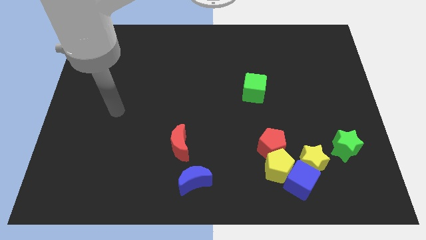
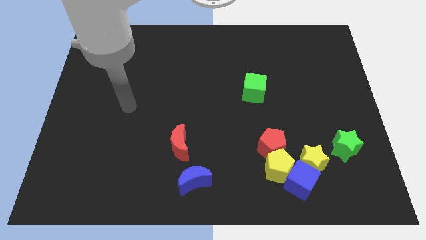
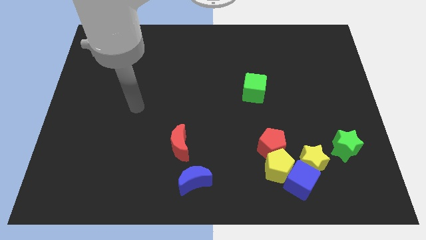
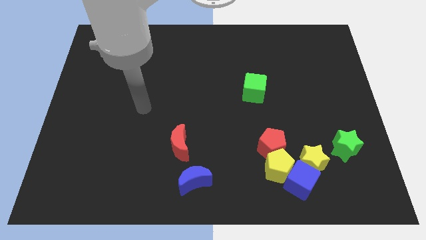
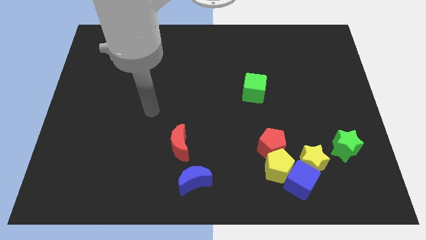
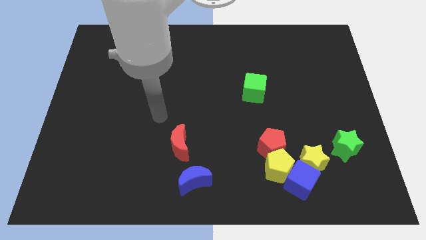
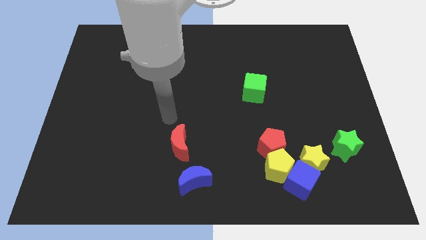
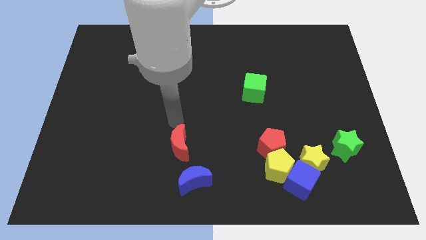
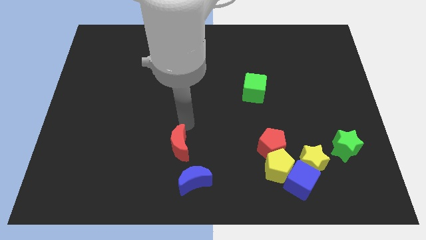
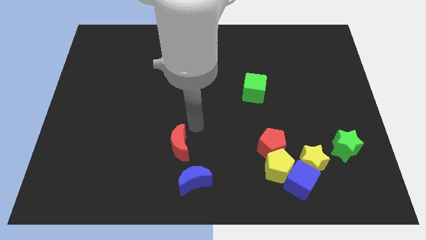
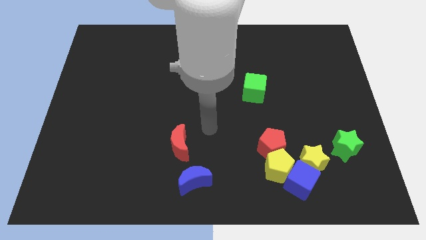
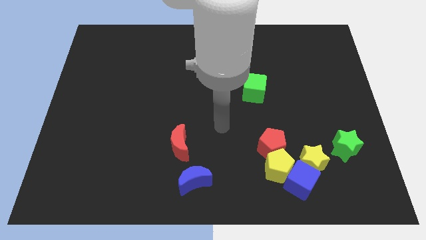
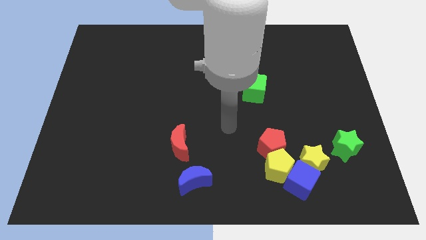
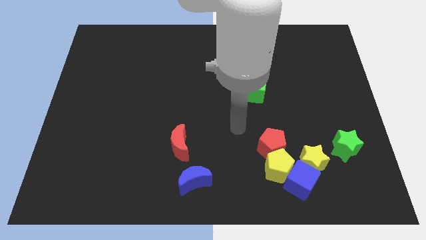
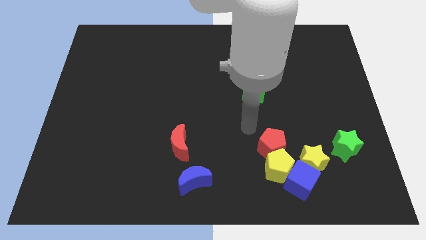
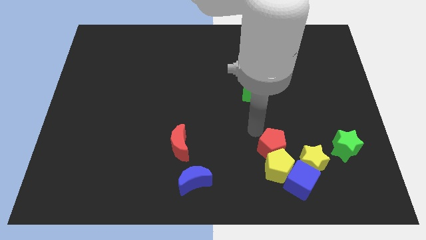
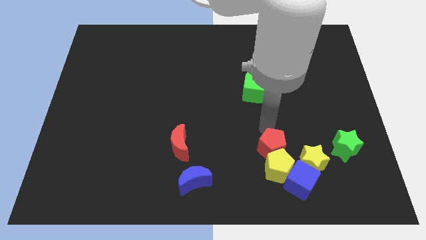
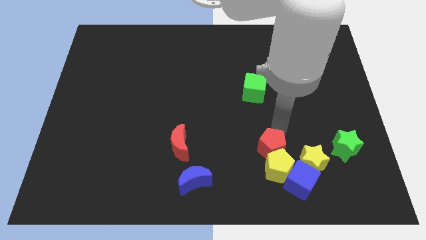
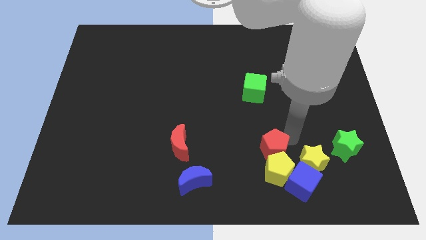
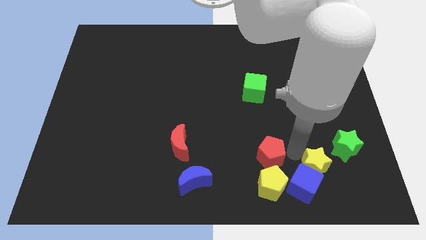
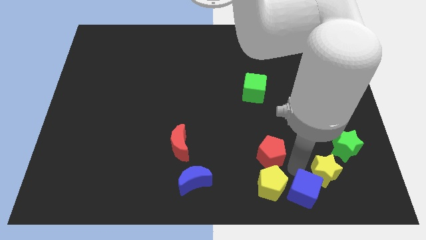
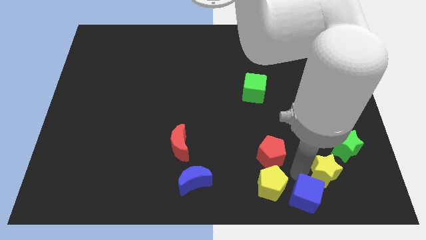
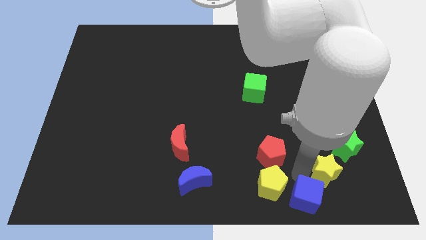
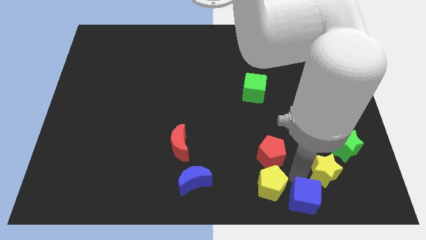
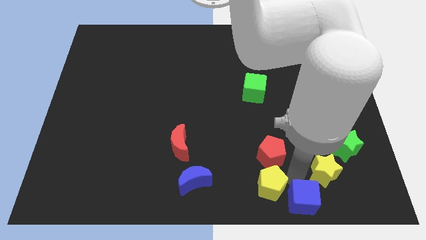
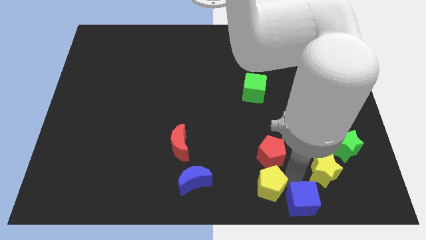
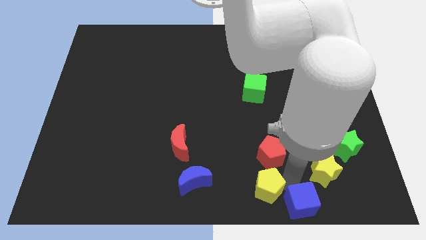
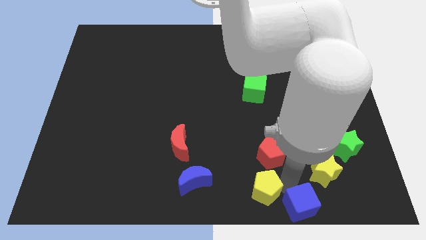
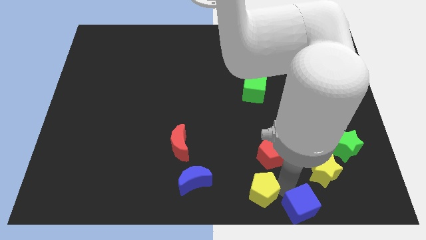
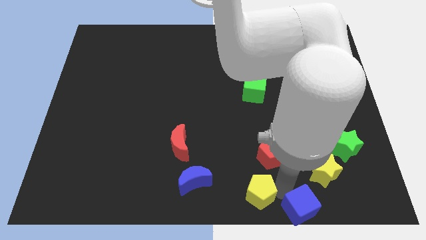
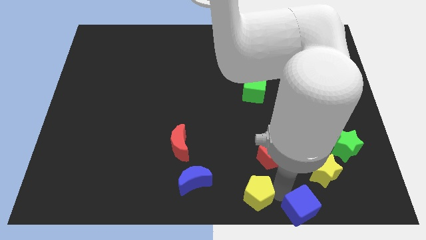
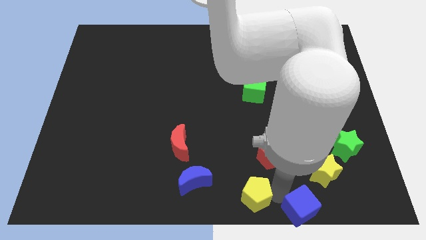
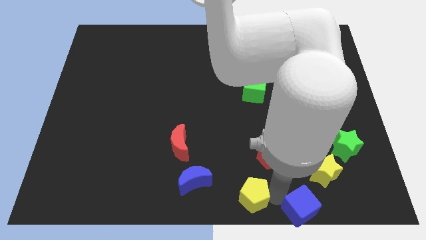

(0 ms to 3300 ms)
pull the yellow pentagon apart from the blue cube, red pentagon, and yellow star

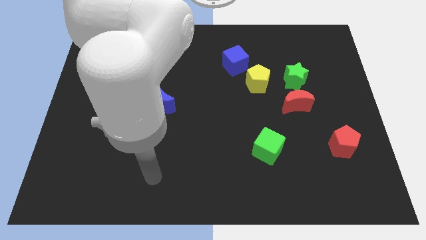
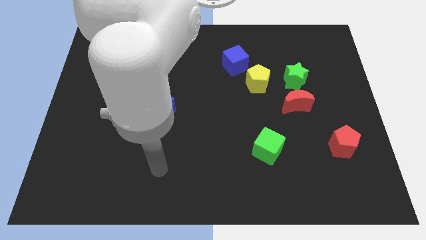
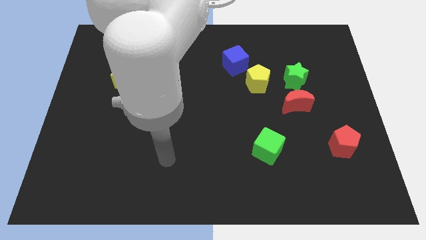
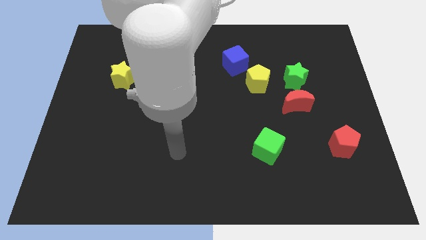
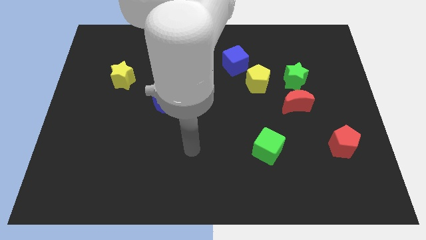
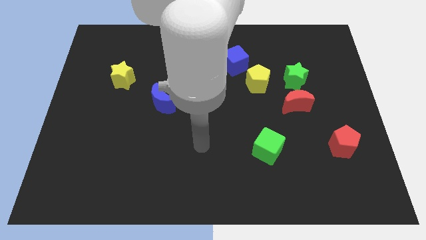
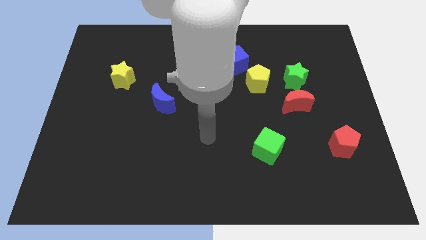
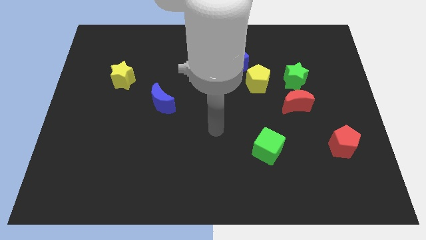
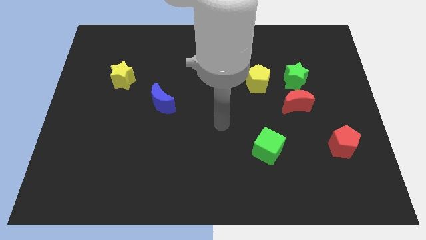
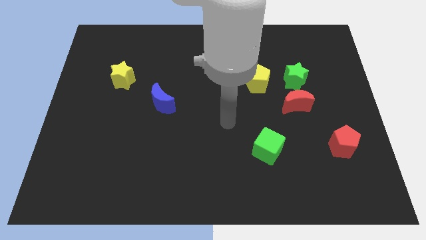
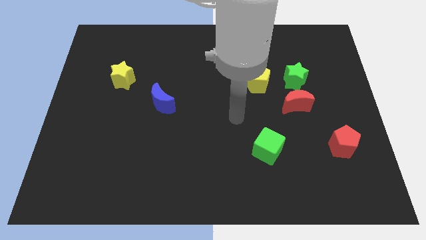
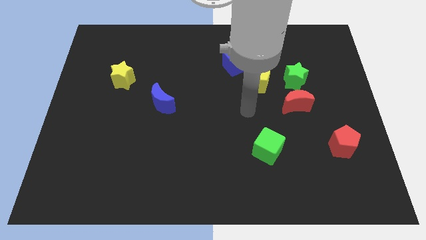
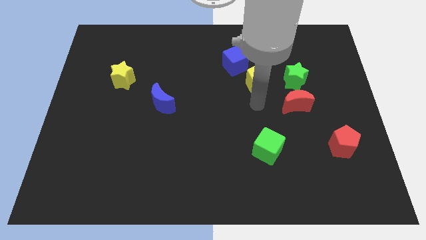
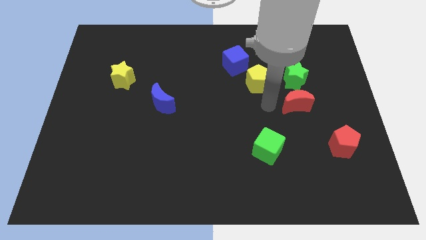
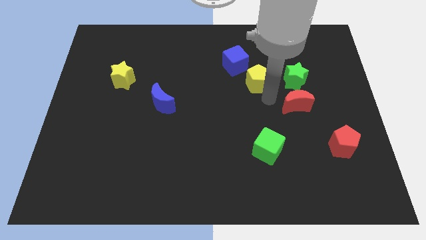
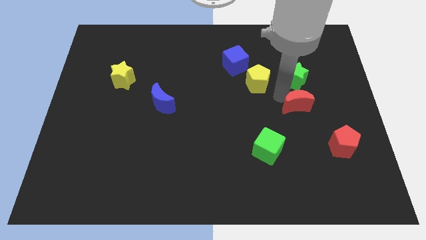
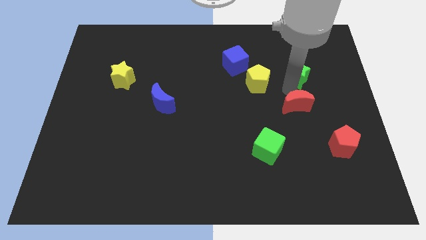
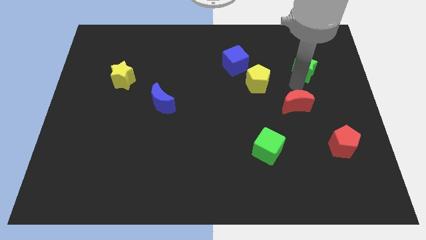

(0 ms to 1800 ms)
move the red moon away from the green star

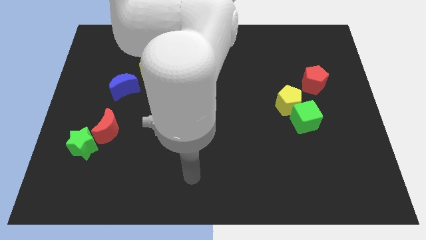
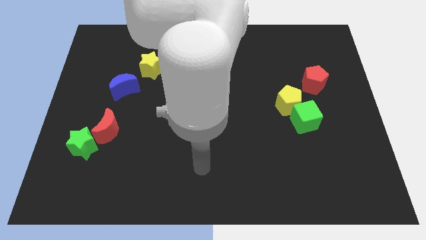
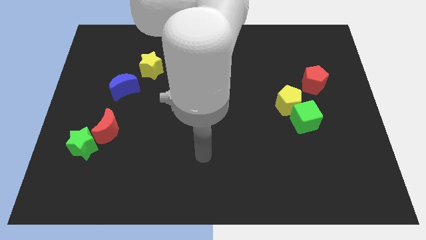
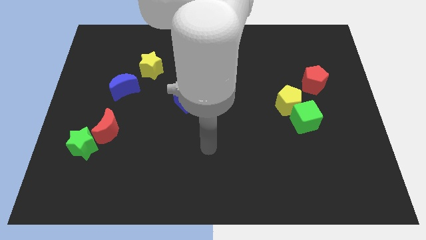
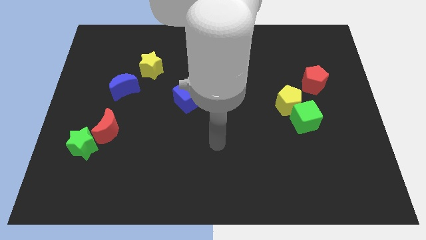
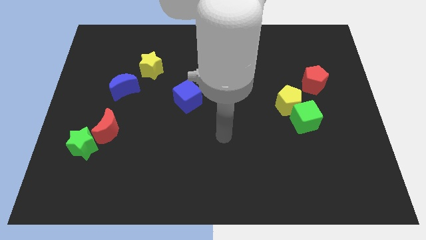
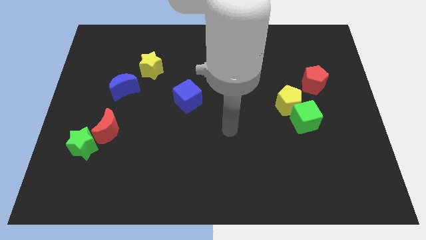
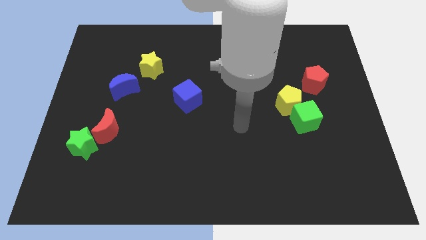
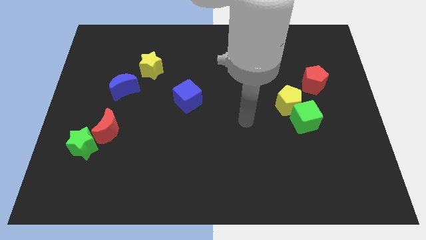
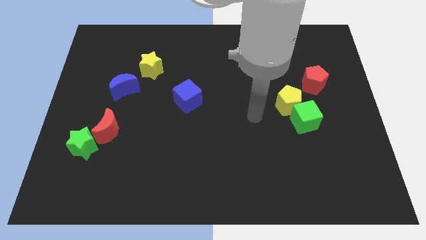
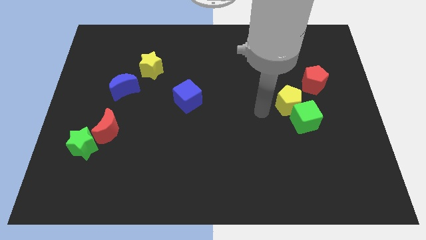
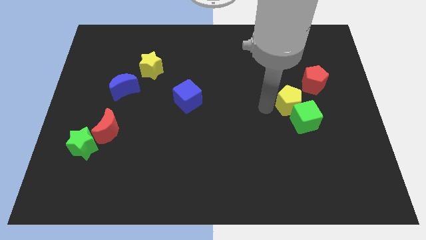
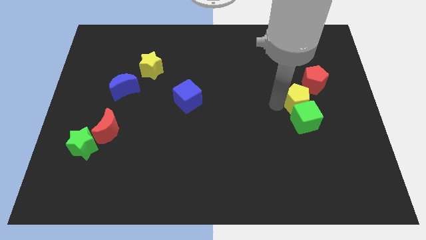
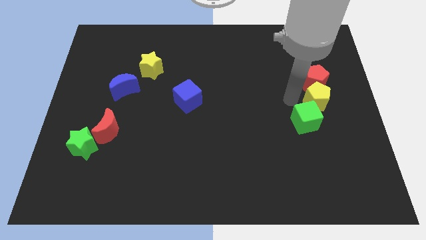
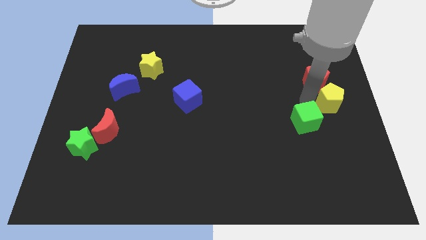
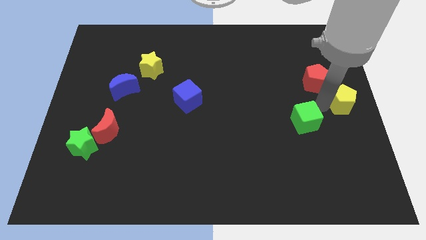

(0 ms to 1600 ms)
move the green cube away from the yellow pentagon

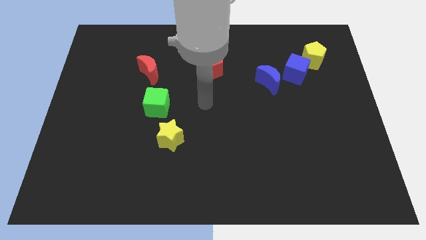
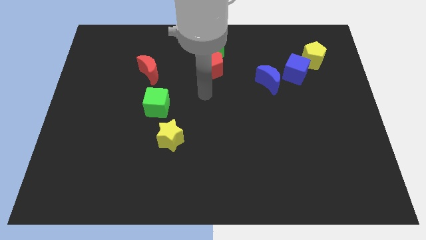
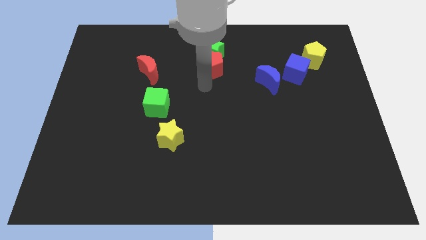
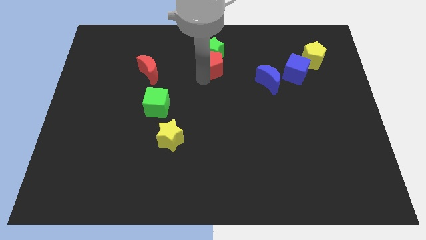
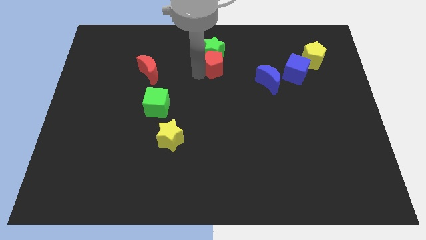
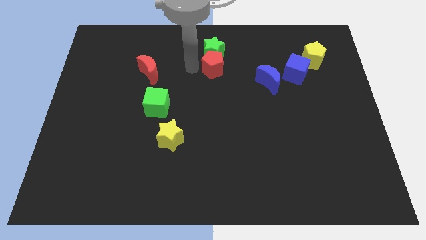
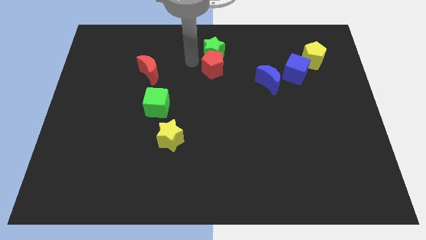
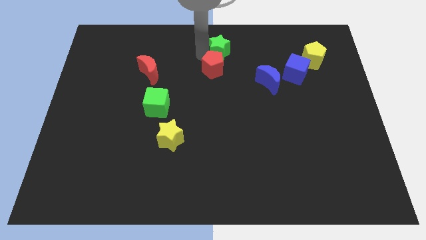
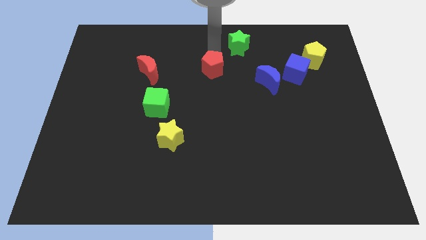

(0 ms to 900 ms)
pull the red pentagon apart from the green star

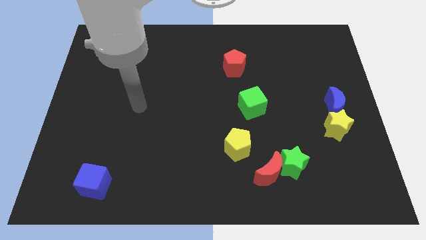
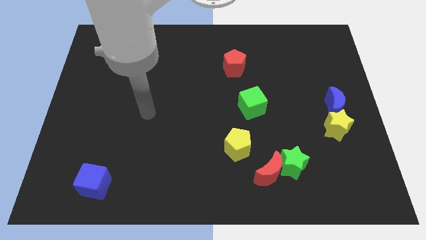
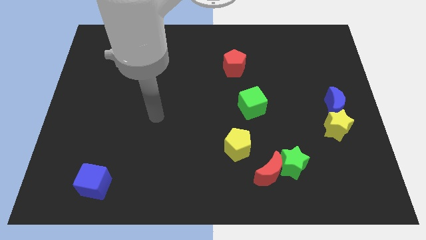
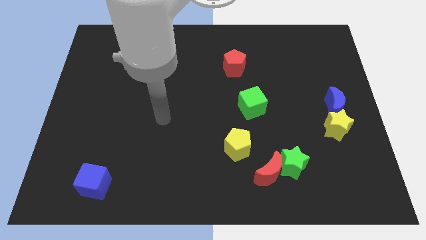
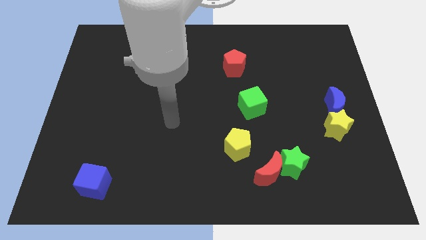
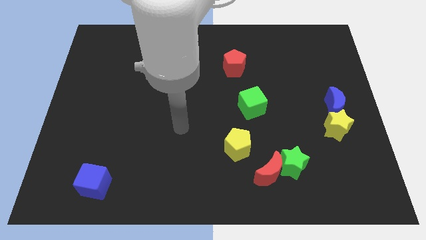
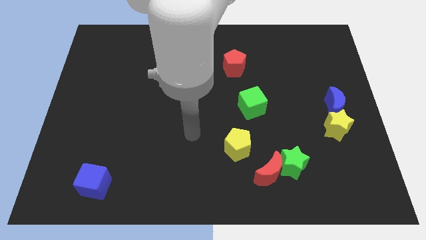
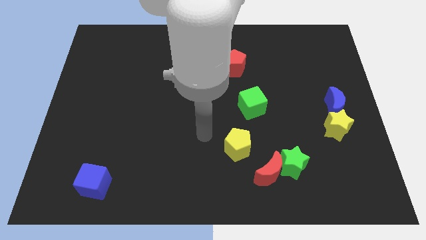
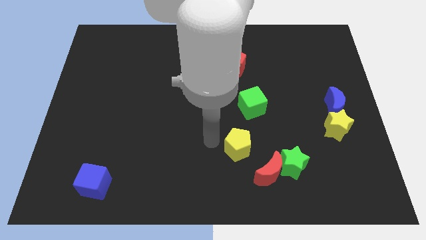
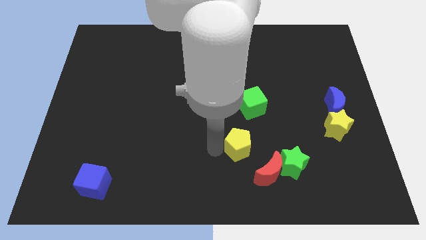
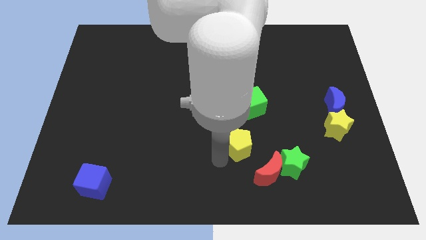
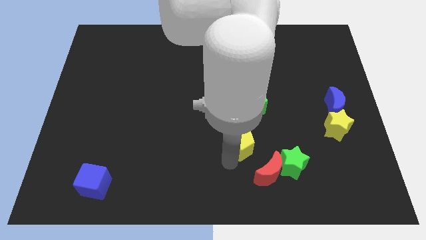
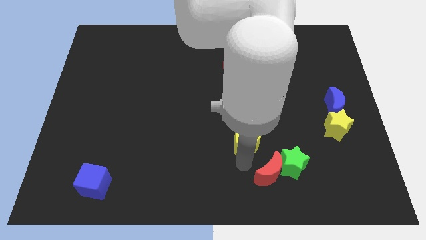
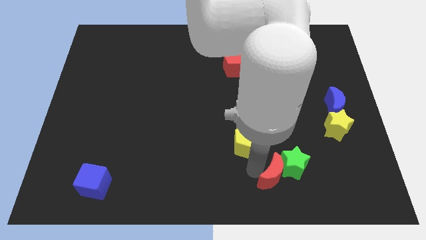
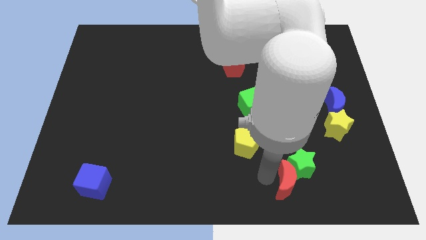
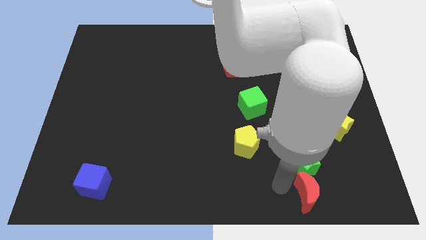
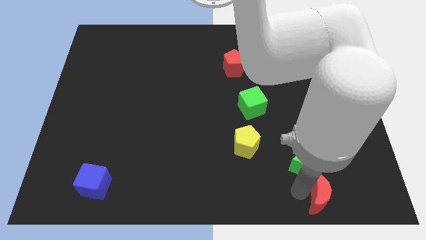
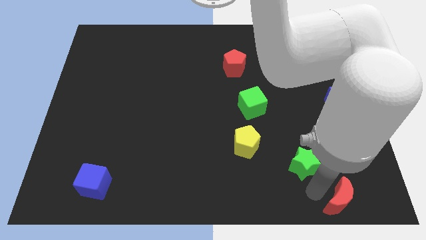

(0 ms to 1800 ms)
pull the green star apart from the red moon
